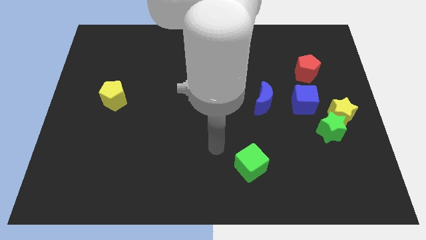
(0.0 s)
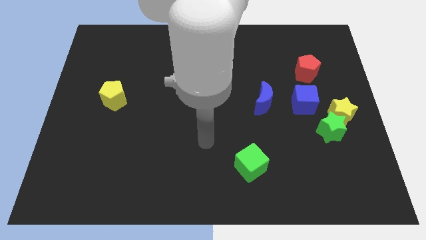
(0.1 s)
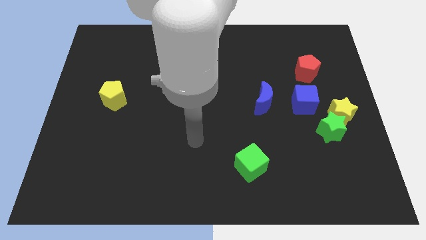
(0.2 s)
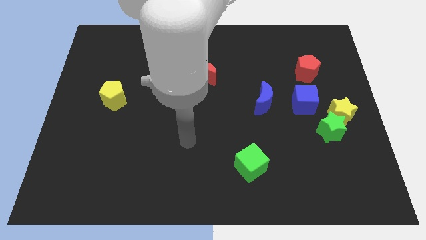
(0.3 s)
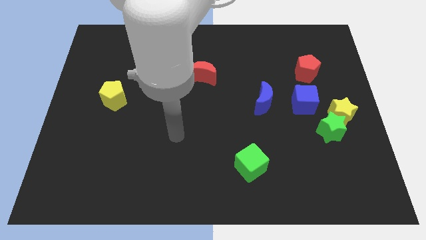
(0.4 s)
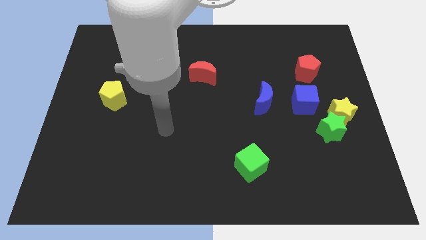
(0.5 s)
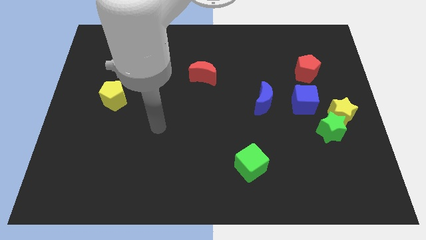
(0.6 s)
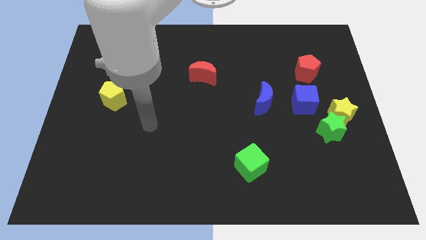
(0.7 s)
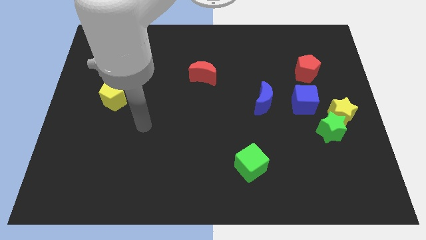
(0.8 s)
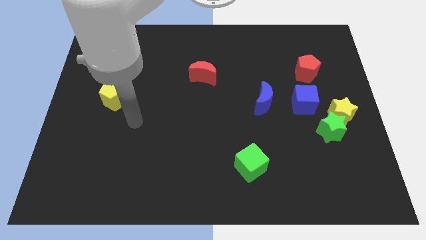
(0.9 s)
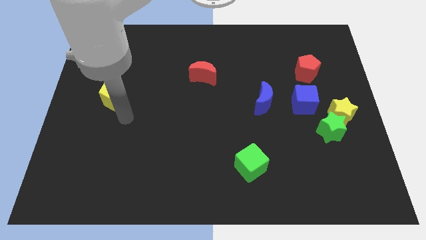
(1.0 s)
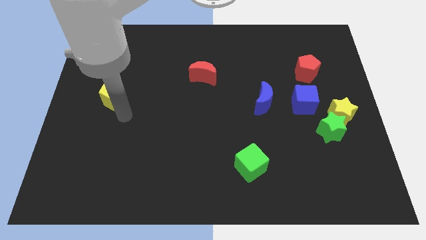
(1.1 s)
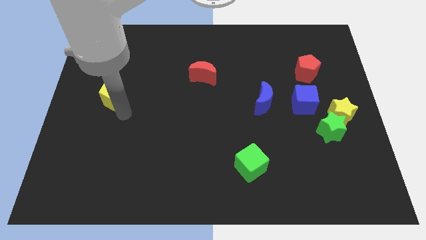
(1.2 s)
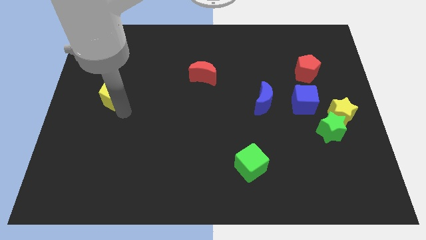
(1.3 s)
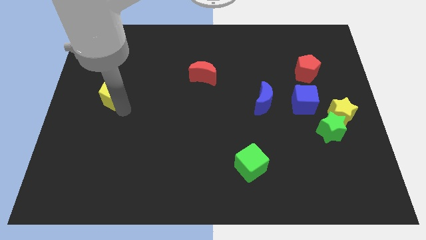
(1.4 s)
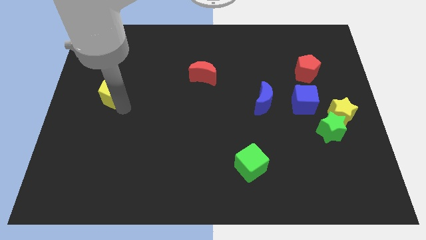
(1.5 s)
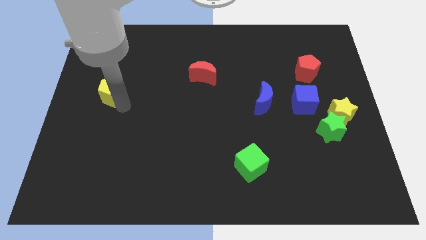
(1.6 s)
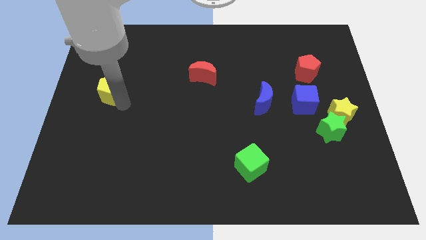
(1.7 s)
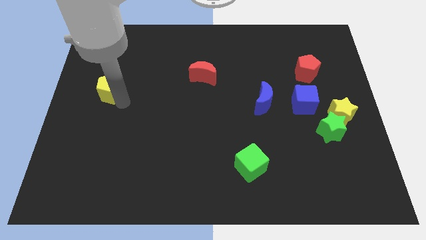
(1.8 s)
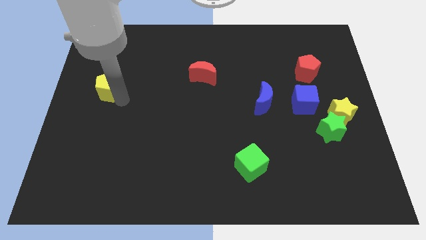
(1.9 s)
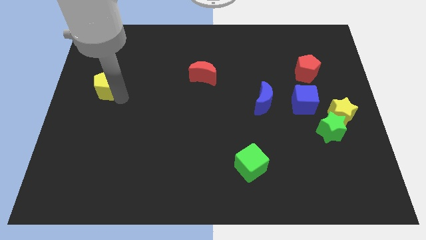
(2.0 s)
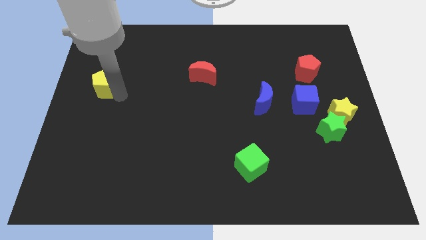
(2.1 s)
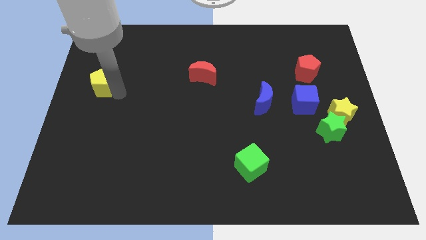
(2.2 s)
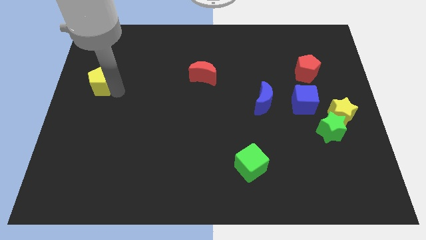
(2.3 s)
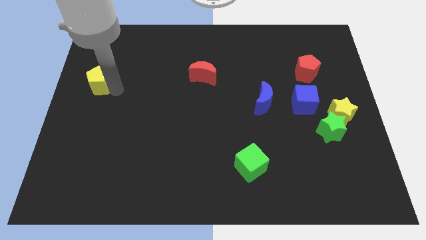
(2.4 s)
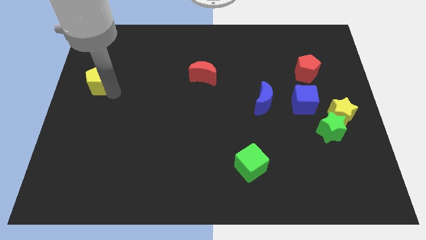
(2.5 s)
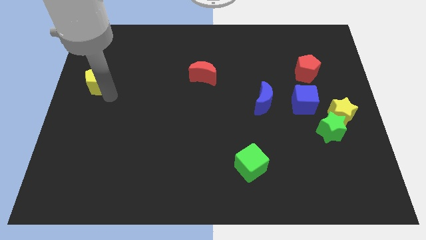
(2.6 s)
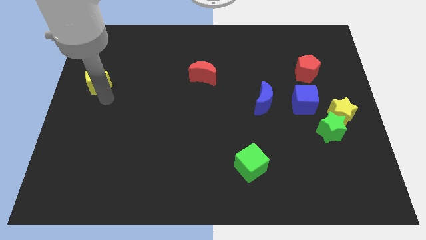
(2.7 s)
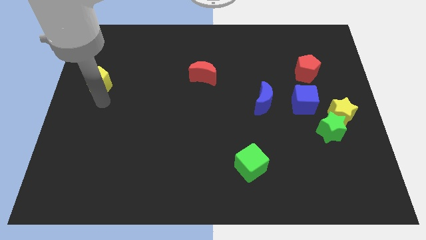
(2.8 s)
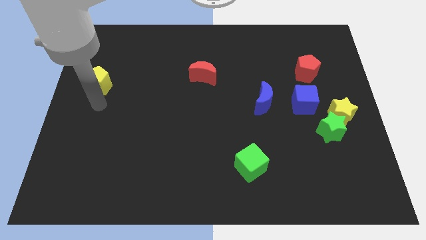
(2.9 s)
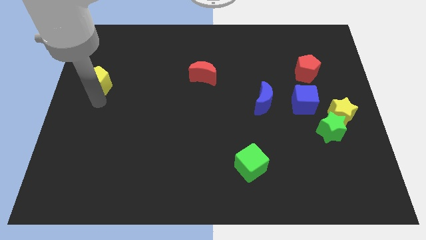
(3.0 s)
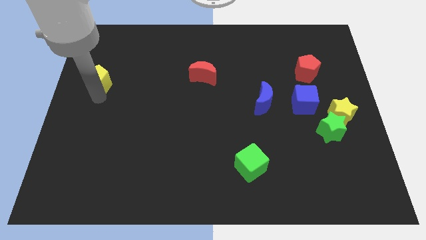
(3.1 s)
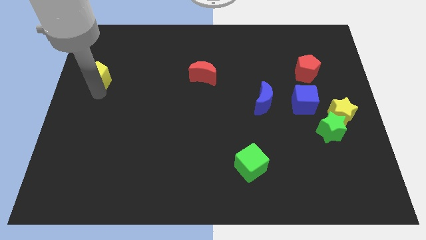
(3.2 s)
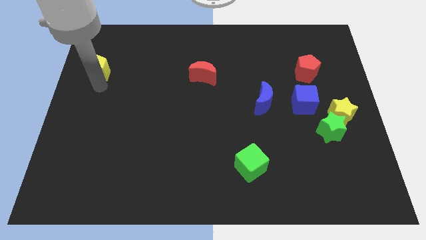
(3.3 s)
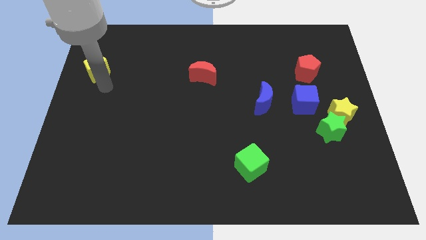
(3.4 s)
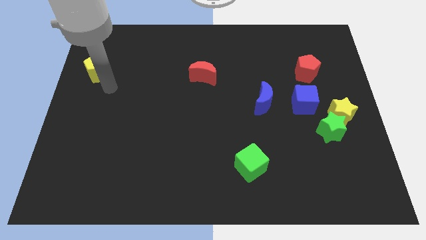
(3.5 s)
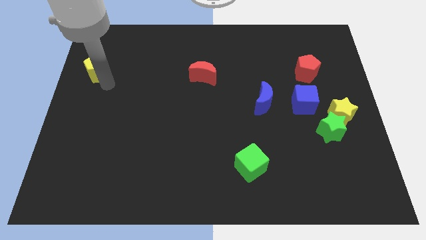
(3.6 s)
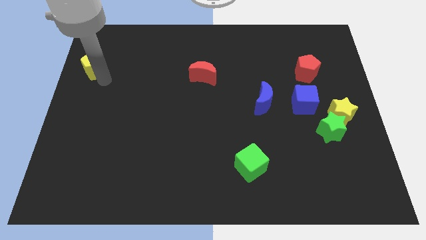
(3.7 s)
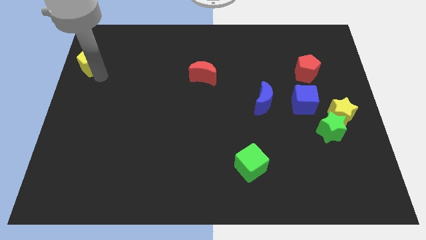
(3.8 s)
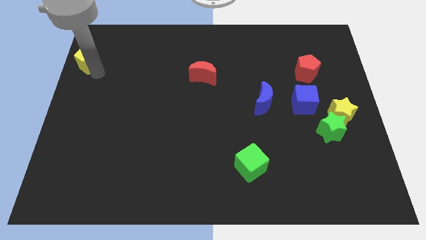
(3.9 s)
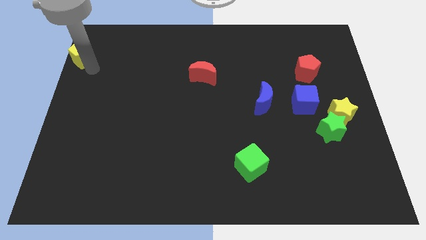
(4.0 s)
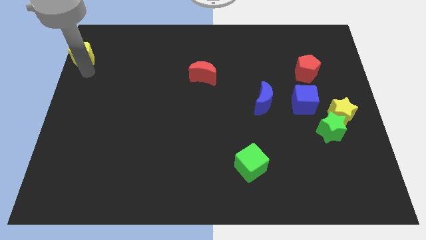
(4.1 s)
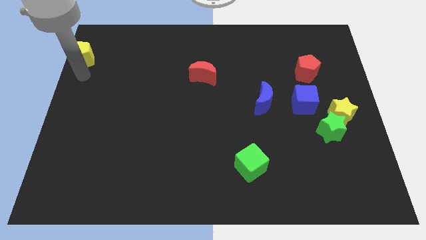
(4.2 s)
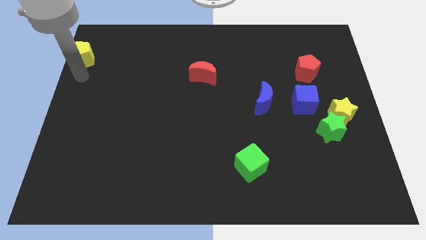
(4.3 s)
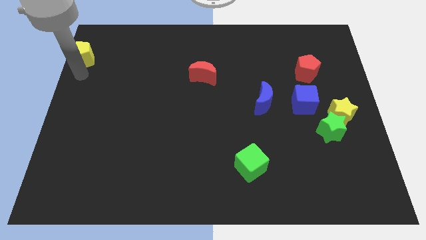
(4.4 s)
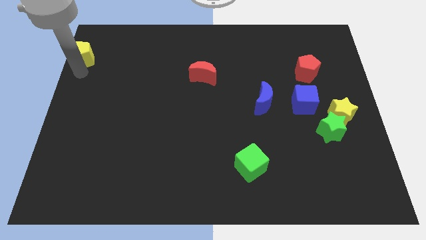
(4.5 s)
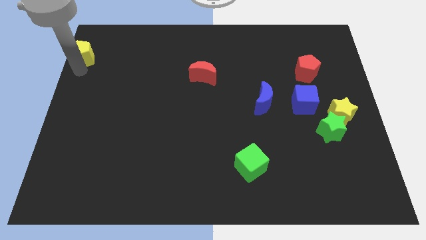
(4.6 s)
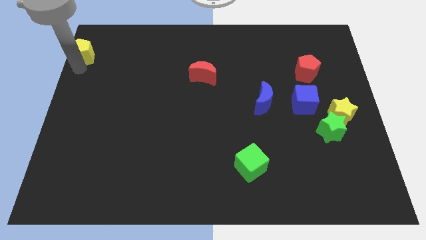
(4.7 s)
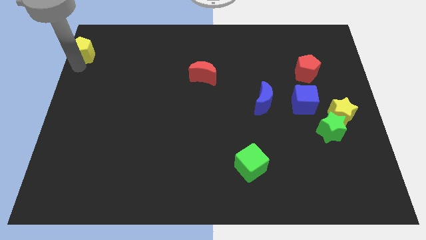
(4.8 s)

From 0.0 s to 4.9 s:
slide the yellow pentagon to the top left

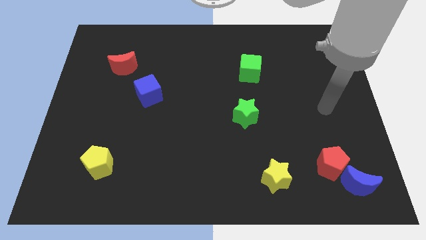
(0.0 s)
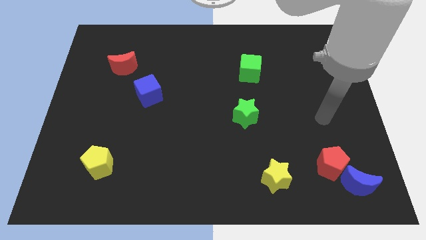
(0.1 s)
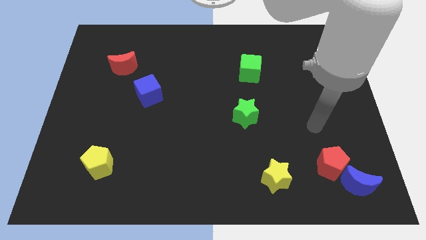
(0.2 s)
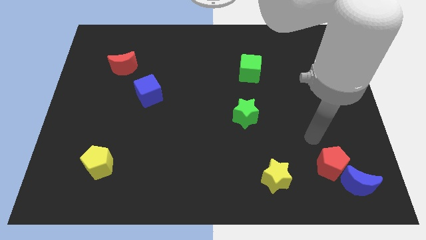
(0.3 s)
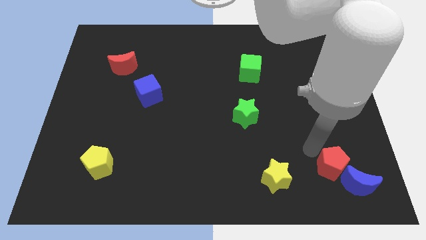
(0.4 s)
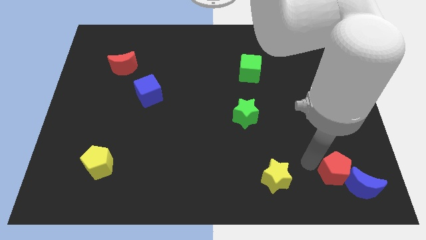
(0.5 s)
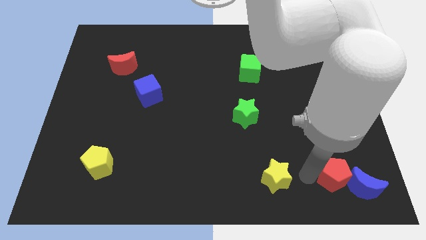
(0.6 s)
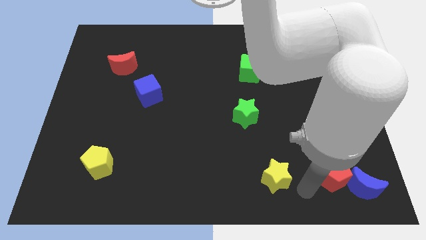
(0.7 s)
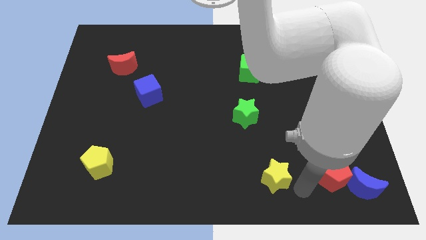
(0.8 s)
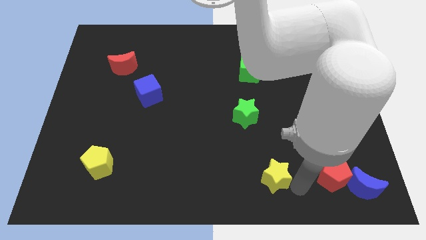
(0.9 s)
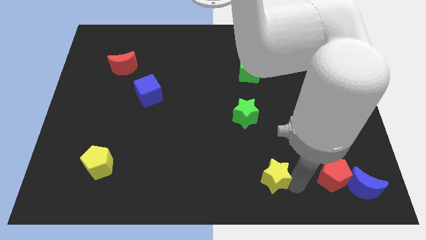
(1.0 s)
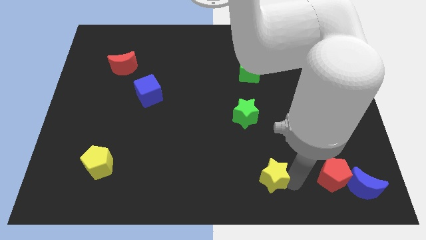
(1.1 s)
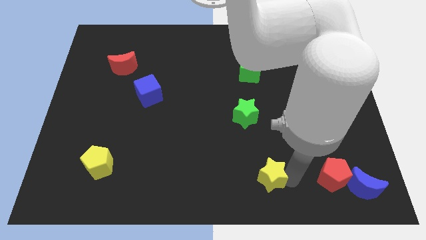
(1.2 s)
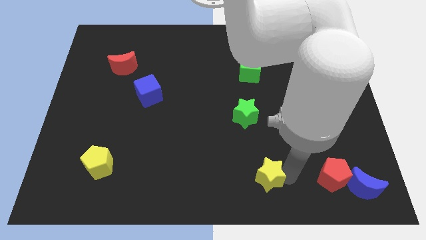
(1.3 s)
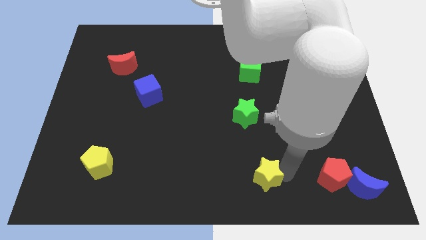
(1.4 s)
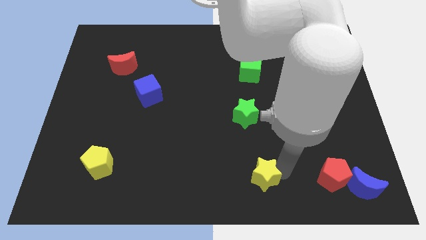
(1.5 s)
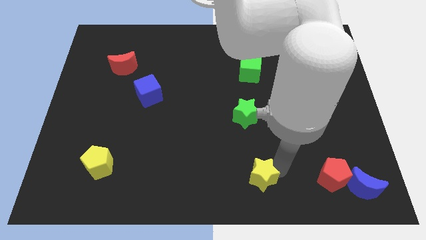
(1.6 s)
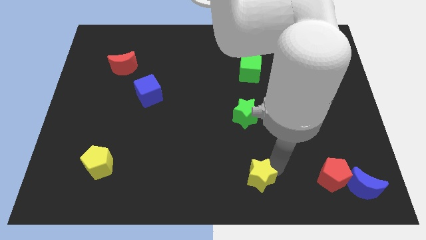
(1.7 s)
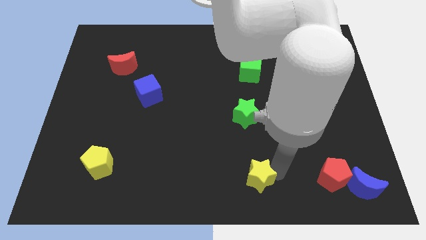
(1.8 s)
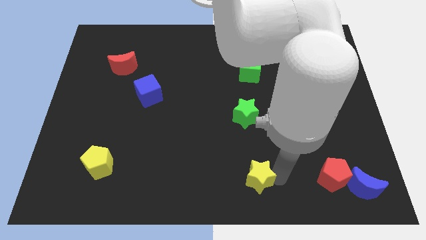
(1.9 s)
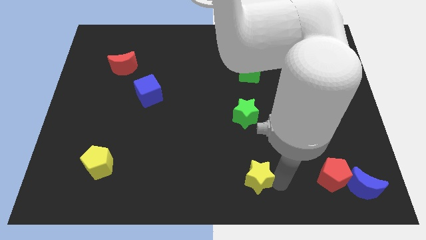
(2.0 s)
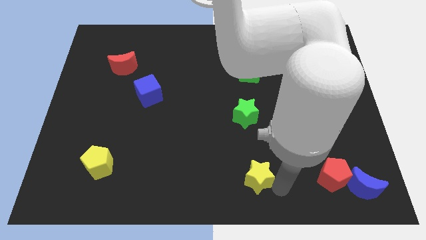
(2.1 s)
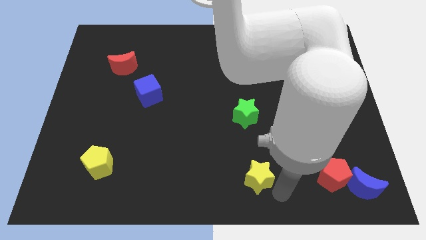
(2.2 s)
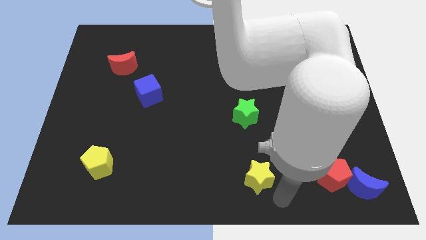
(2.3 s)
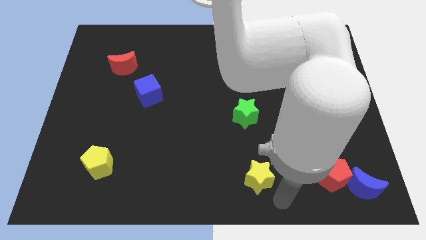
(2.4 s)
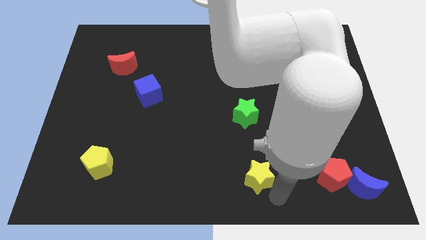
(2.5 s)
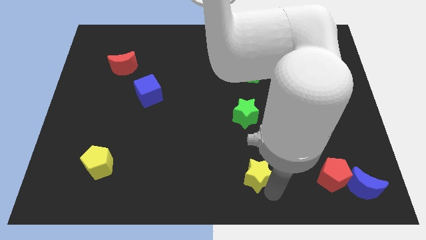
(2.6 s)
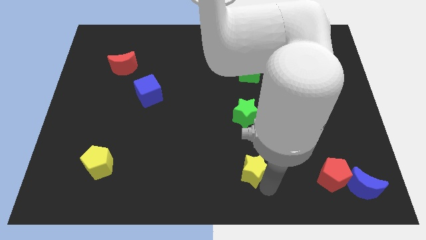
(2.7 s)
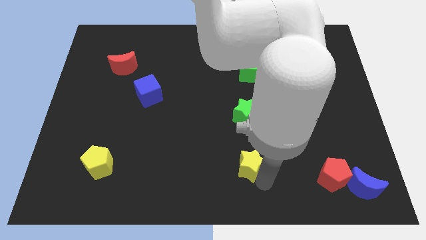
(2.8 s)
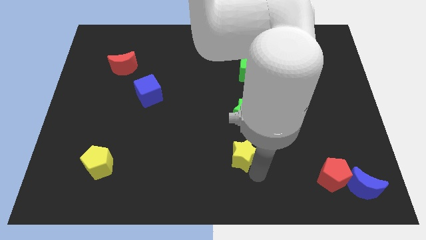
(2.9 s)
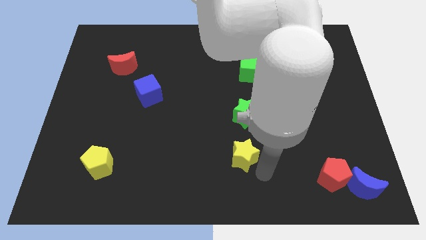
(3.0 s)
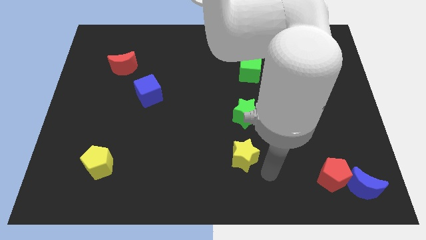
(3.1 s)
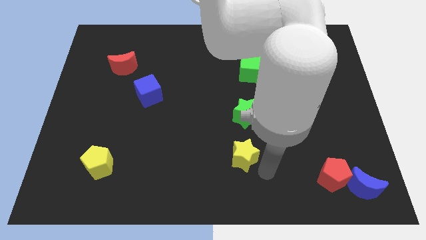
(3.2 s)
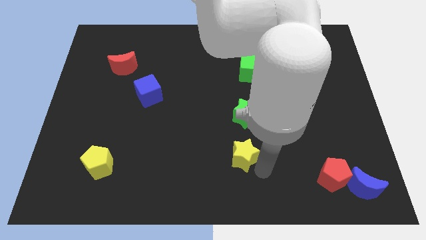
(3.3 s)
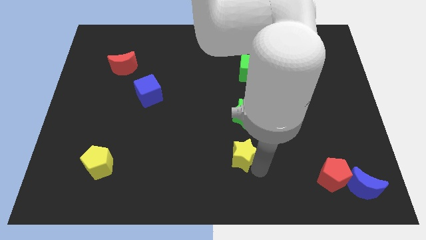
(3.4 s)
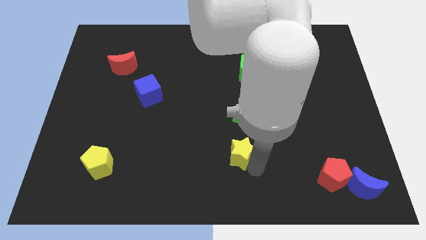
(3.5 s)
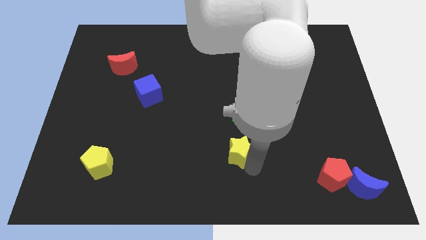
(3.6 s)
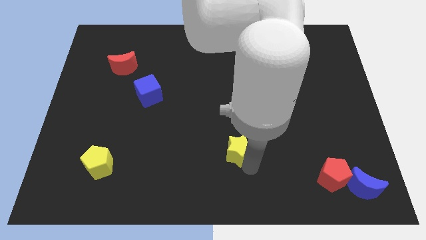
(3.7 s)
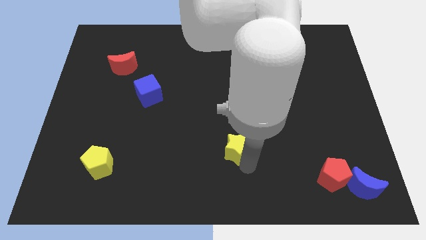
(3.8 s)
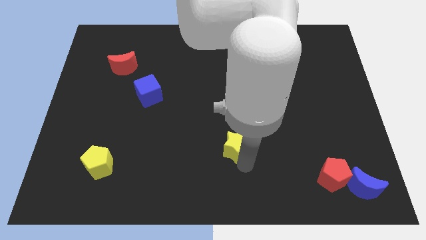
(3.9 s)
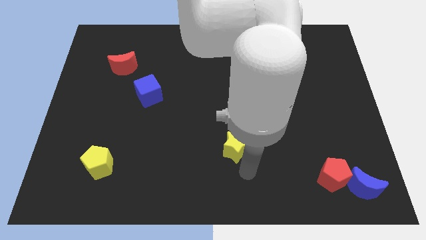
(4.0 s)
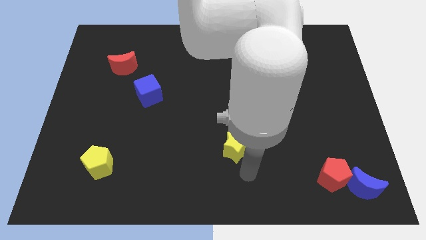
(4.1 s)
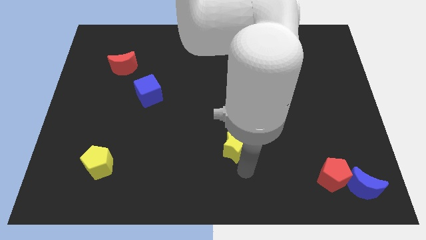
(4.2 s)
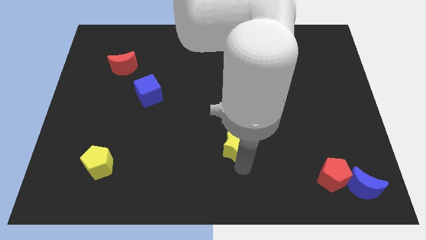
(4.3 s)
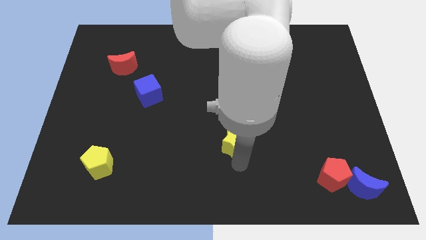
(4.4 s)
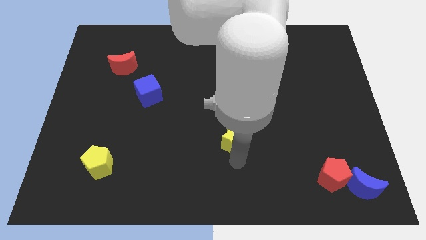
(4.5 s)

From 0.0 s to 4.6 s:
push the yellow star to the center
